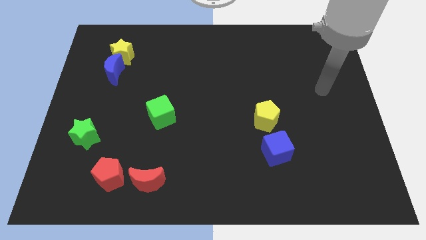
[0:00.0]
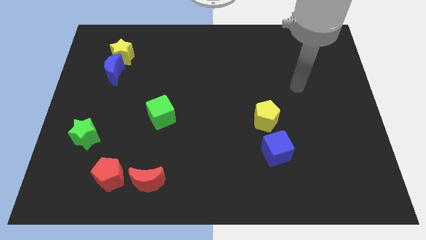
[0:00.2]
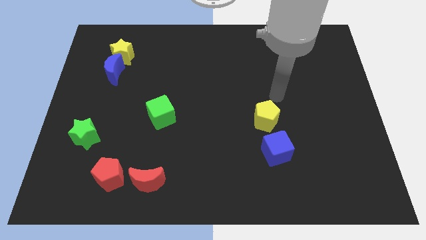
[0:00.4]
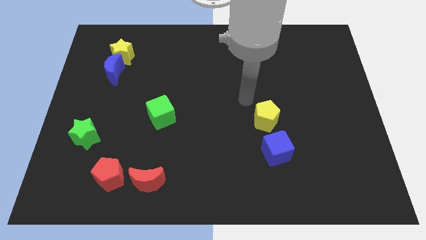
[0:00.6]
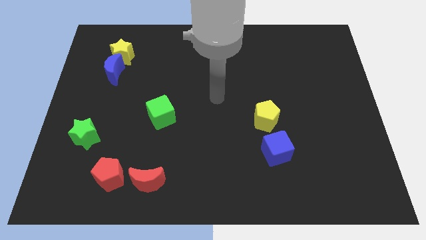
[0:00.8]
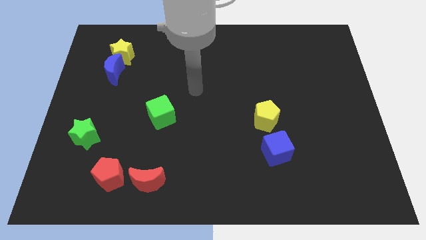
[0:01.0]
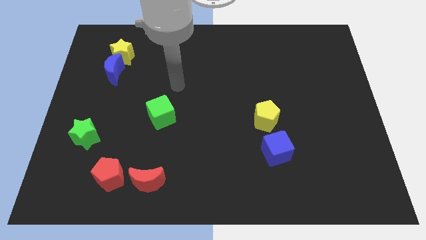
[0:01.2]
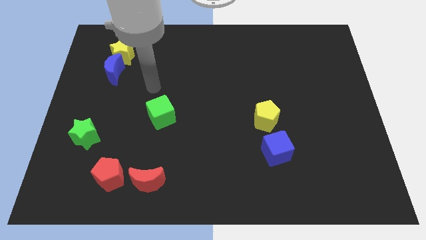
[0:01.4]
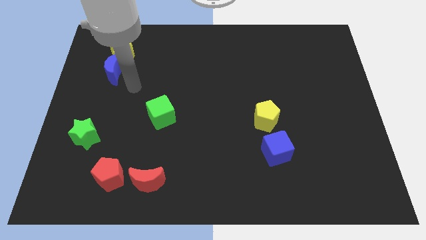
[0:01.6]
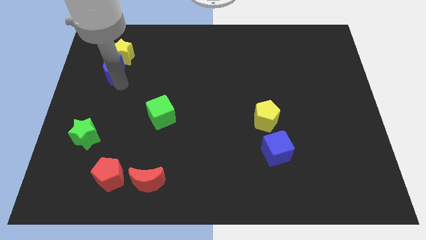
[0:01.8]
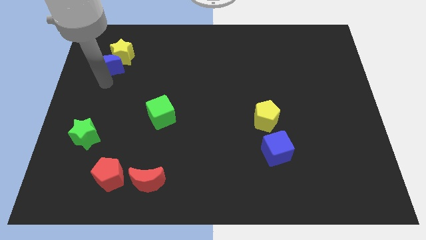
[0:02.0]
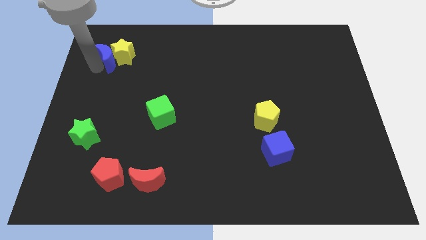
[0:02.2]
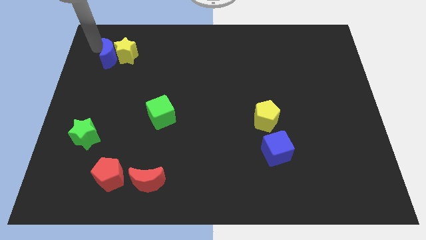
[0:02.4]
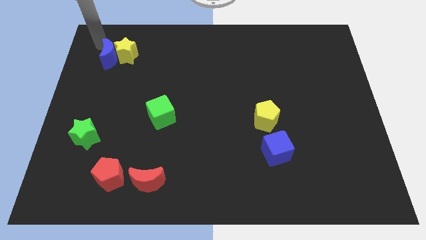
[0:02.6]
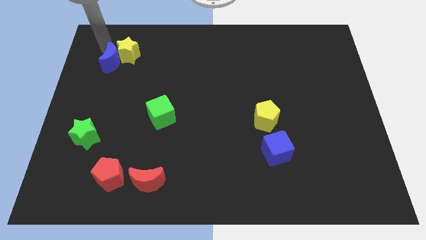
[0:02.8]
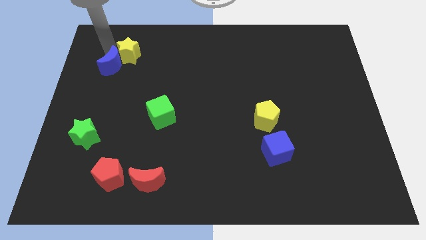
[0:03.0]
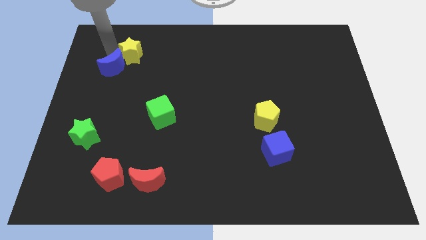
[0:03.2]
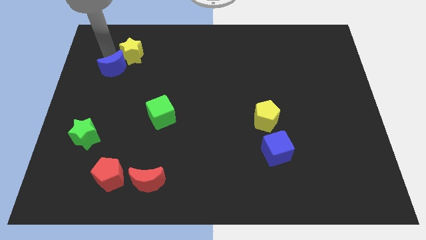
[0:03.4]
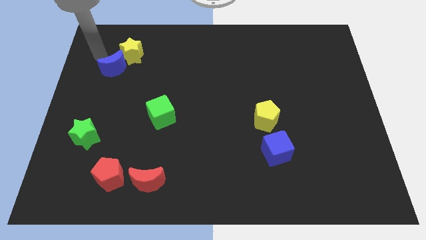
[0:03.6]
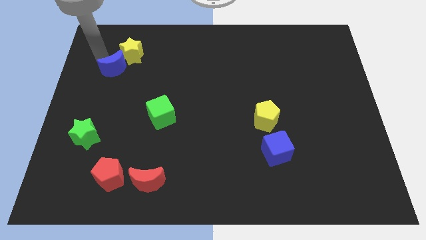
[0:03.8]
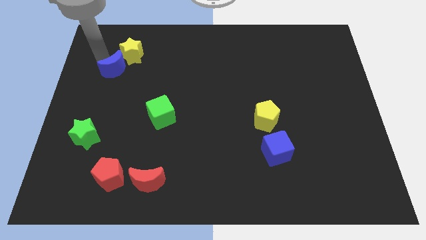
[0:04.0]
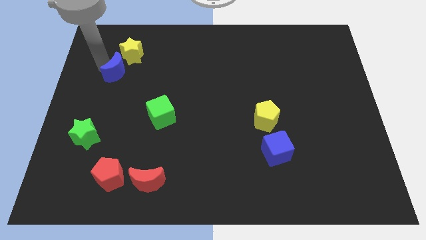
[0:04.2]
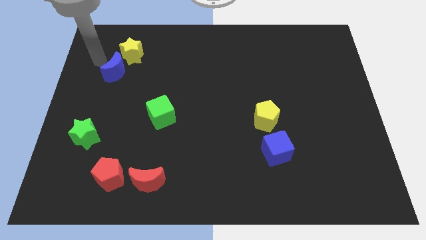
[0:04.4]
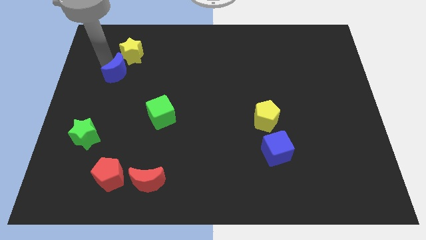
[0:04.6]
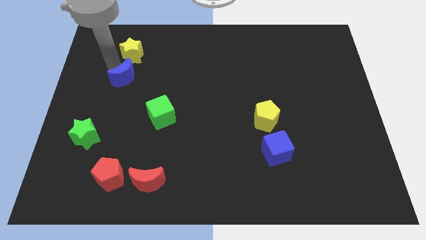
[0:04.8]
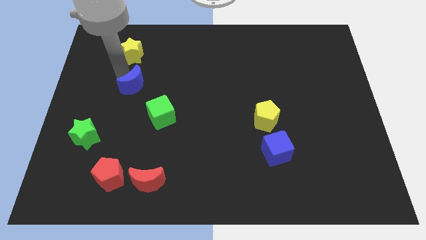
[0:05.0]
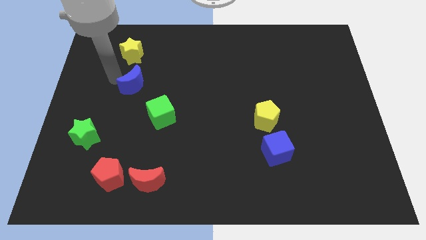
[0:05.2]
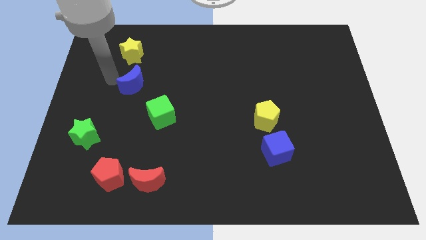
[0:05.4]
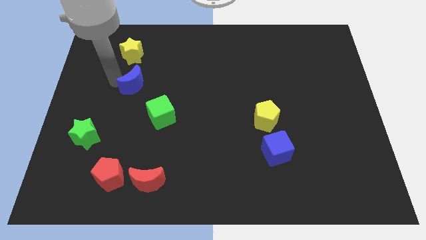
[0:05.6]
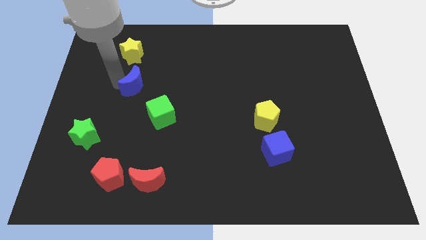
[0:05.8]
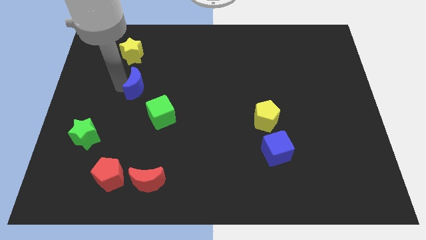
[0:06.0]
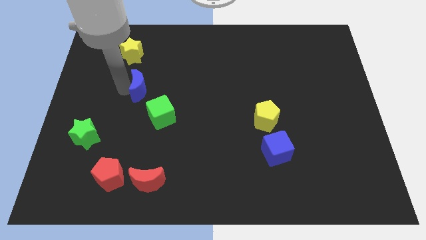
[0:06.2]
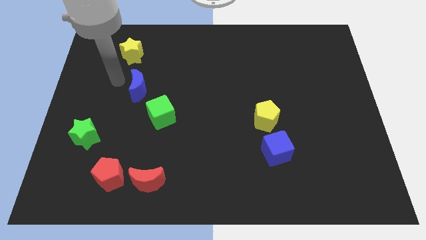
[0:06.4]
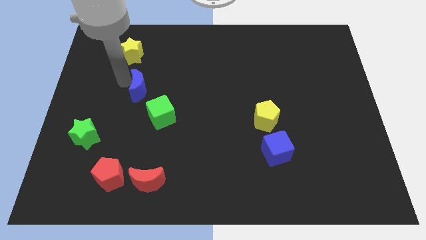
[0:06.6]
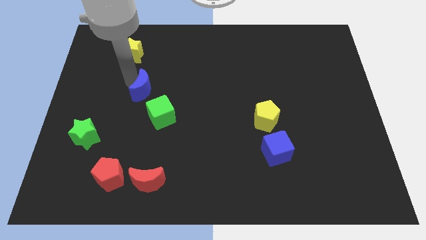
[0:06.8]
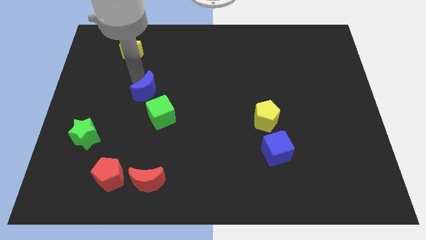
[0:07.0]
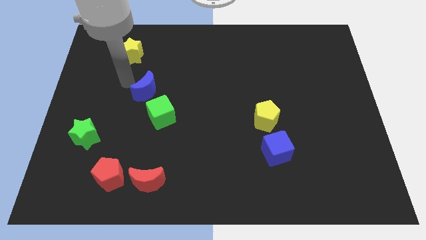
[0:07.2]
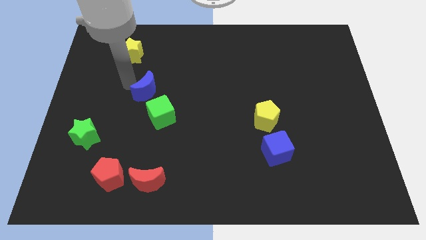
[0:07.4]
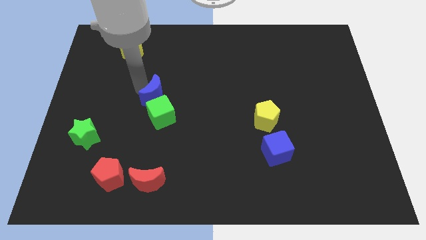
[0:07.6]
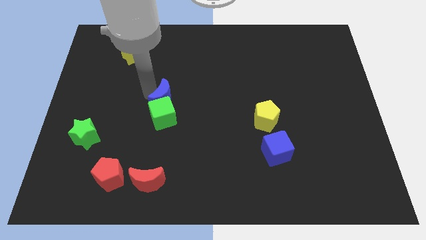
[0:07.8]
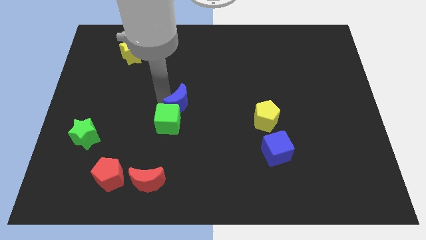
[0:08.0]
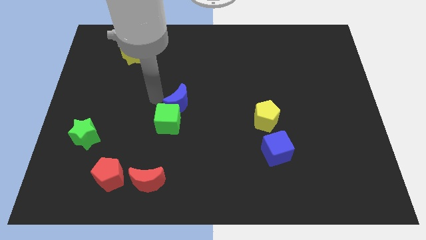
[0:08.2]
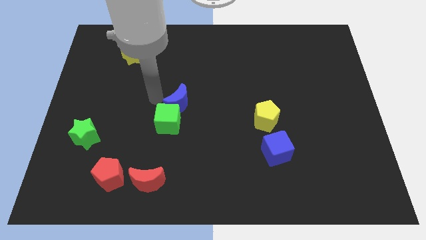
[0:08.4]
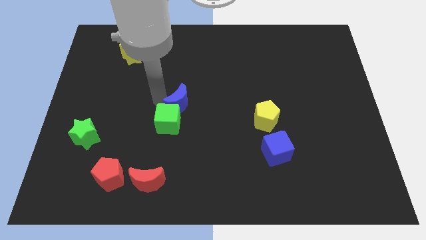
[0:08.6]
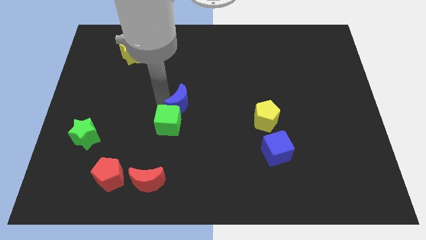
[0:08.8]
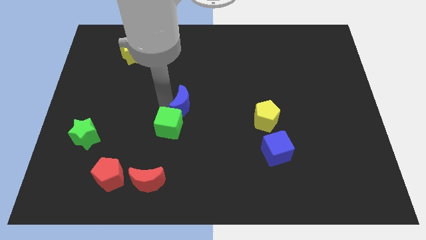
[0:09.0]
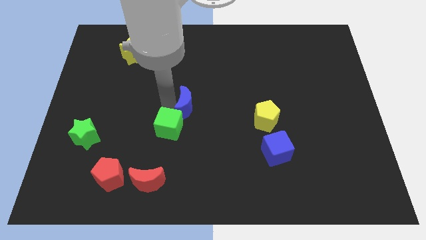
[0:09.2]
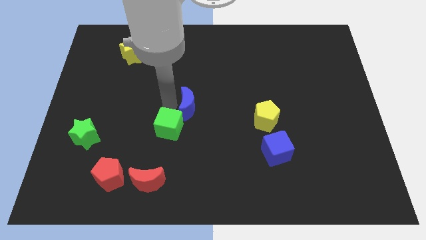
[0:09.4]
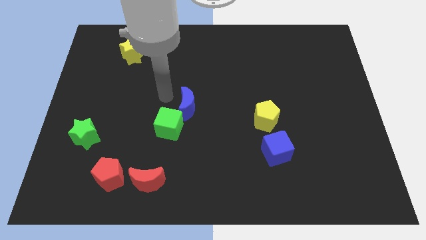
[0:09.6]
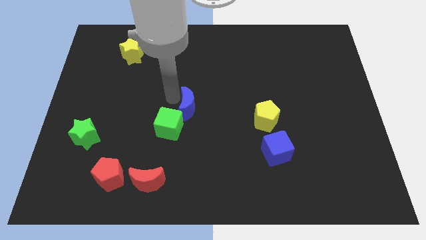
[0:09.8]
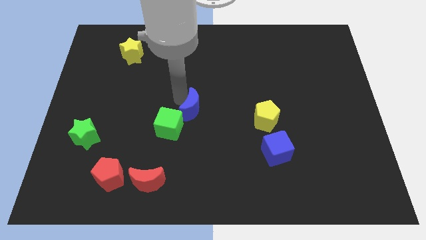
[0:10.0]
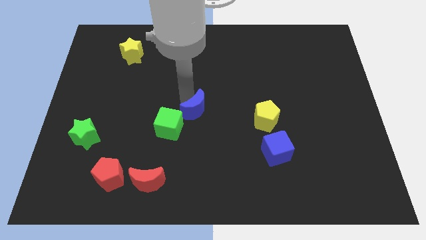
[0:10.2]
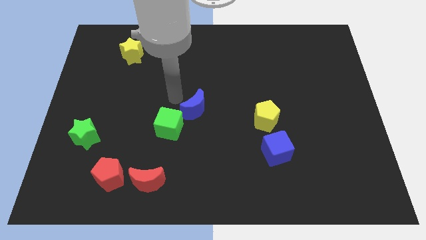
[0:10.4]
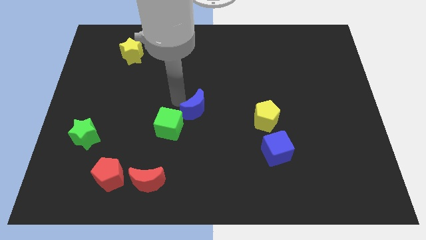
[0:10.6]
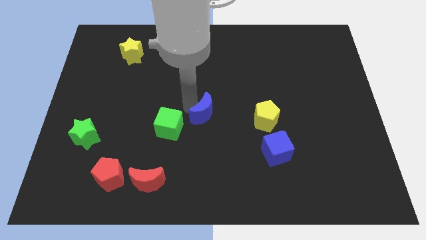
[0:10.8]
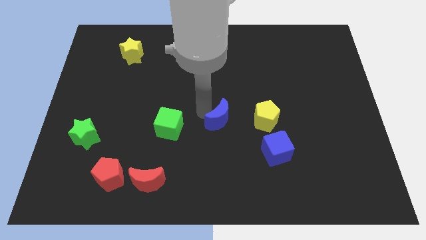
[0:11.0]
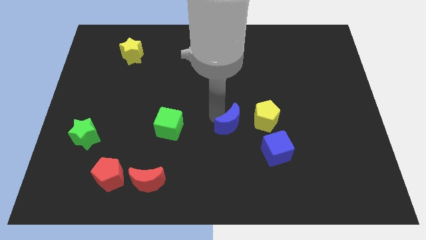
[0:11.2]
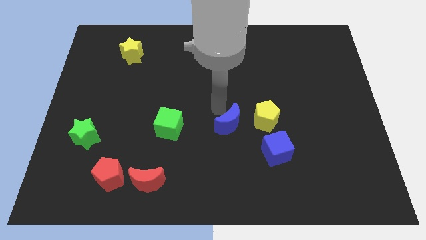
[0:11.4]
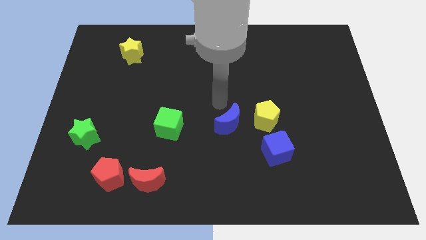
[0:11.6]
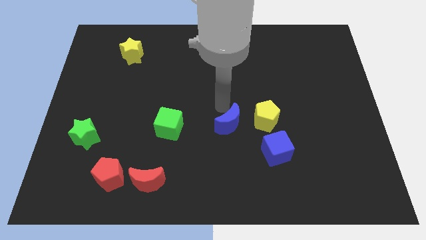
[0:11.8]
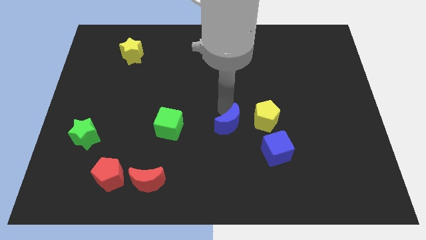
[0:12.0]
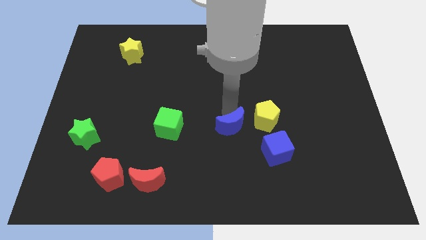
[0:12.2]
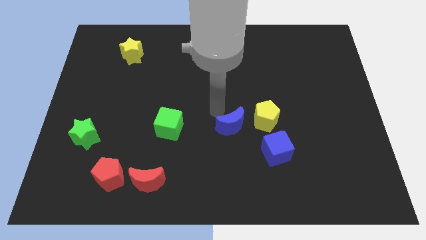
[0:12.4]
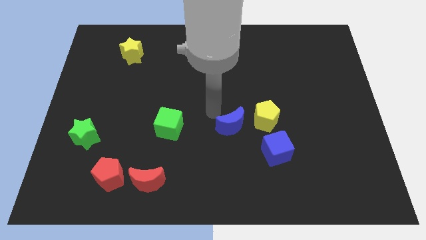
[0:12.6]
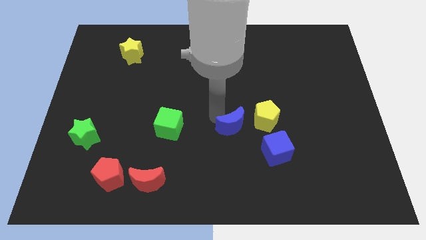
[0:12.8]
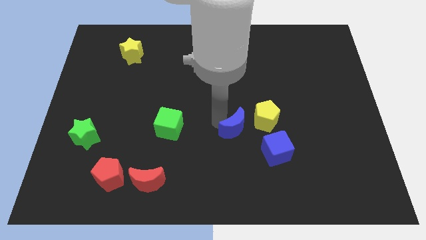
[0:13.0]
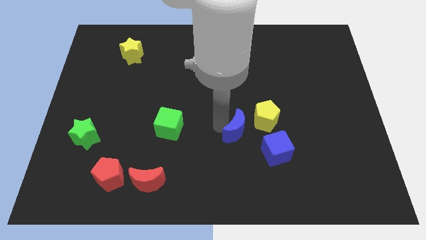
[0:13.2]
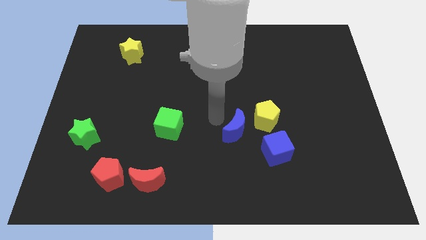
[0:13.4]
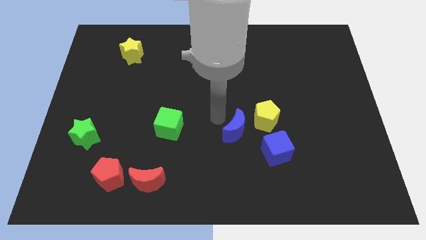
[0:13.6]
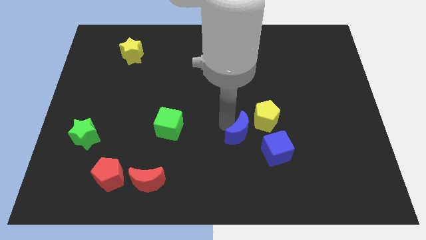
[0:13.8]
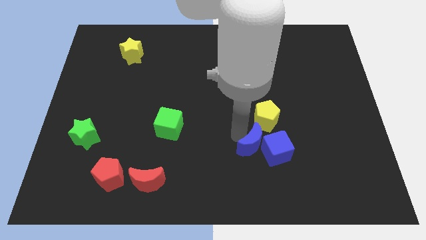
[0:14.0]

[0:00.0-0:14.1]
move the blue moon to the blue cube

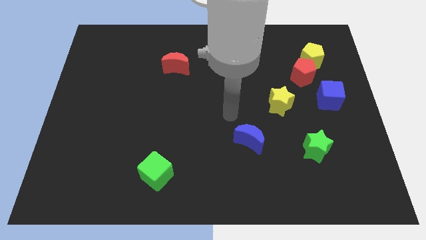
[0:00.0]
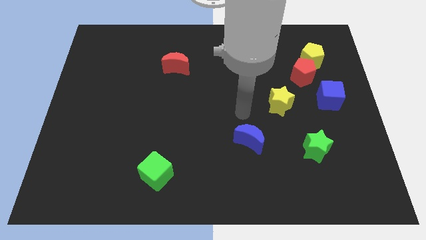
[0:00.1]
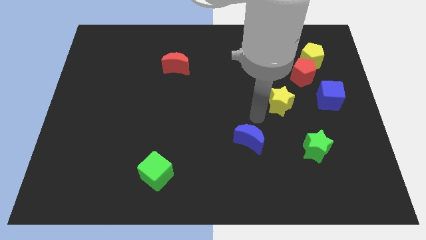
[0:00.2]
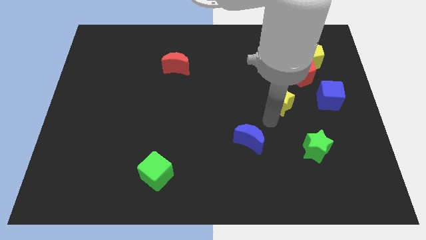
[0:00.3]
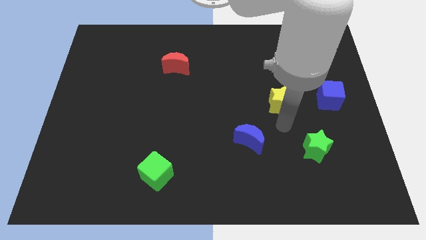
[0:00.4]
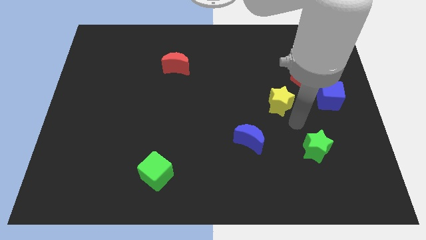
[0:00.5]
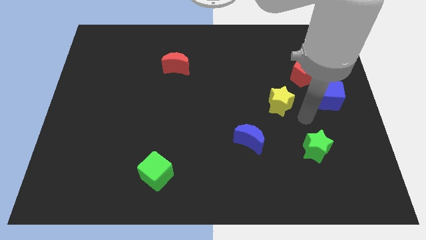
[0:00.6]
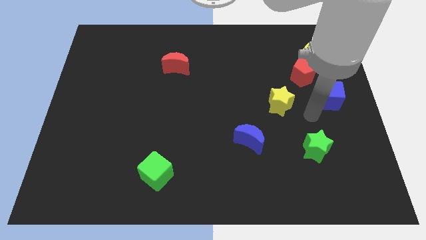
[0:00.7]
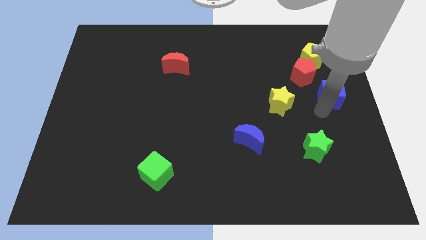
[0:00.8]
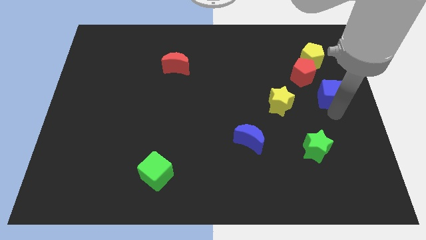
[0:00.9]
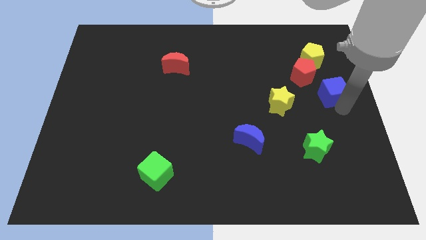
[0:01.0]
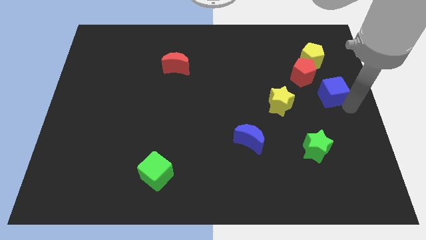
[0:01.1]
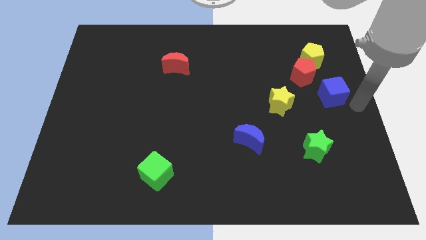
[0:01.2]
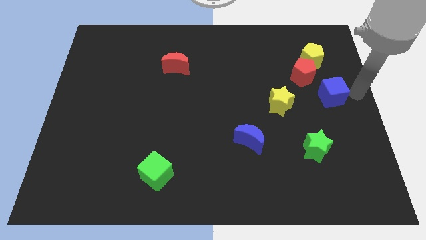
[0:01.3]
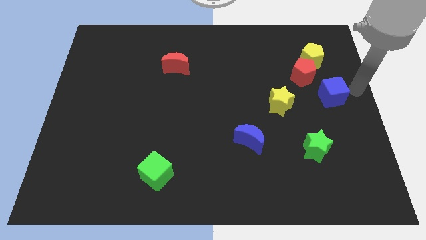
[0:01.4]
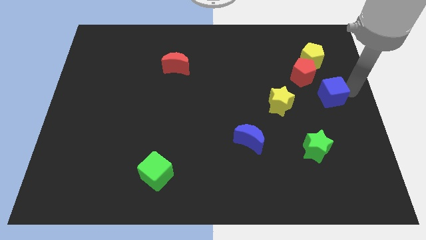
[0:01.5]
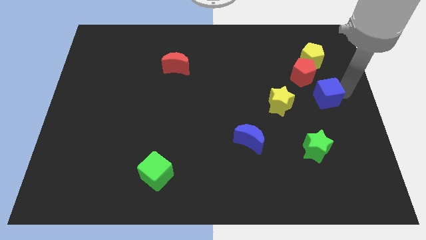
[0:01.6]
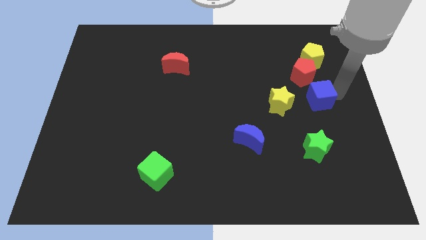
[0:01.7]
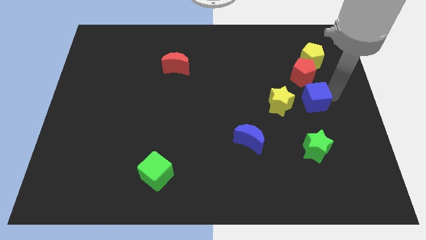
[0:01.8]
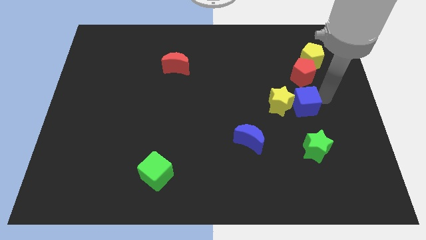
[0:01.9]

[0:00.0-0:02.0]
slide the blue cube to the yellow star
